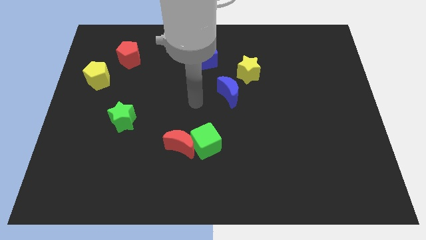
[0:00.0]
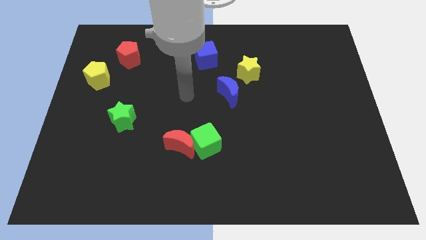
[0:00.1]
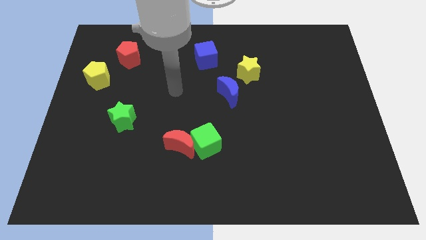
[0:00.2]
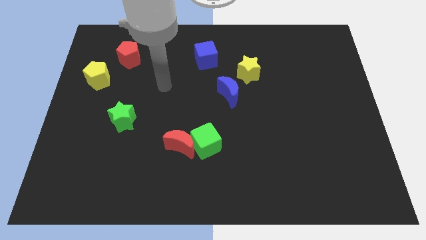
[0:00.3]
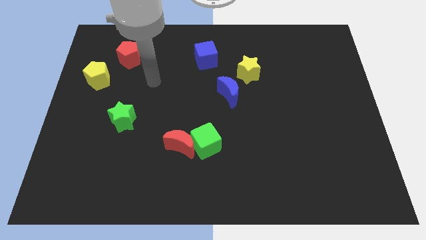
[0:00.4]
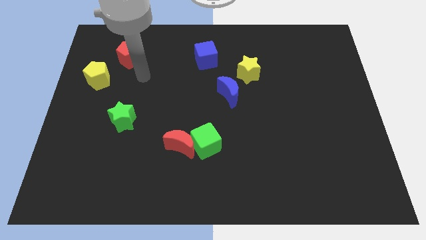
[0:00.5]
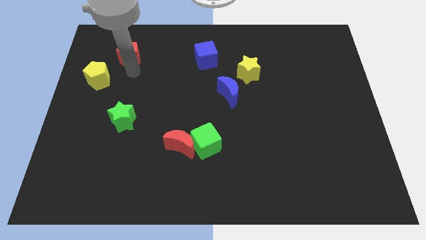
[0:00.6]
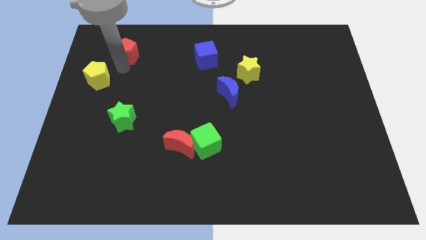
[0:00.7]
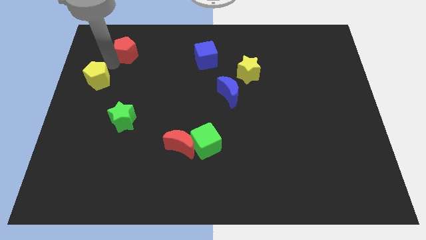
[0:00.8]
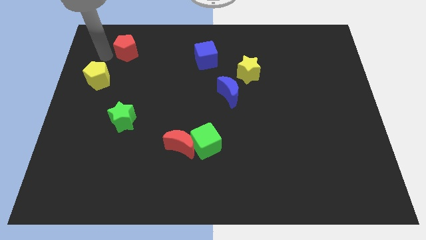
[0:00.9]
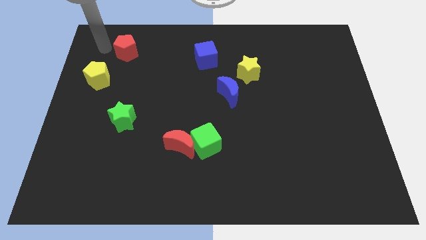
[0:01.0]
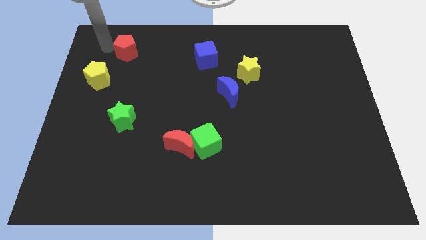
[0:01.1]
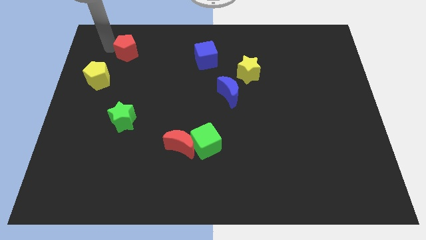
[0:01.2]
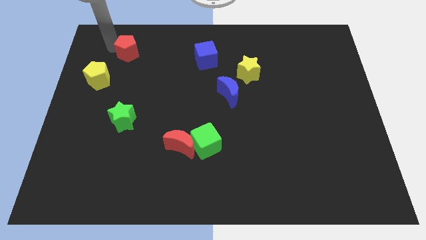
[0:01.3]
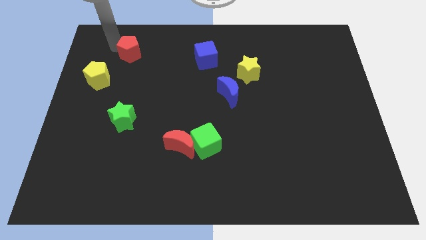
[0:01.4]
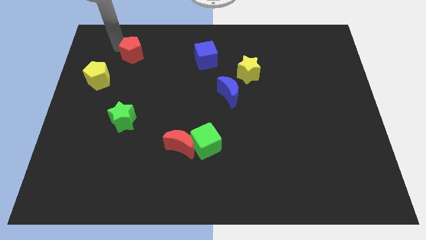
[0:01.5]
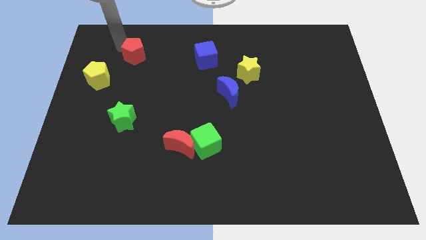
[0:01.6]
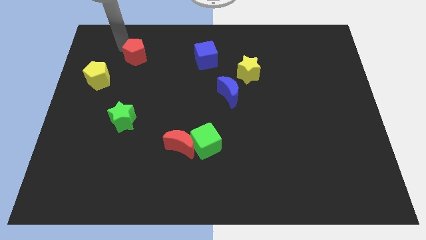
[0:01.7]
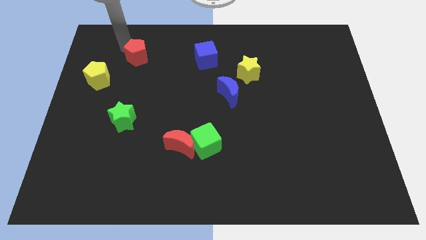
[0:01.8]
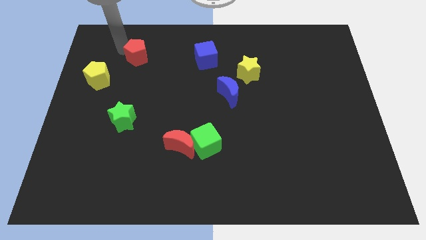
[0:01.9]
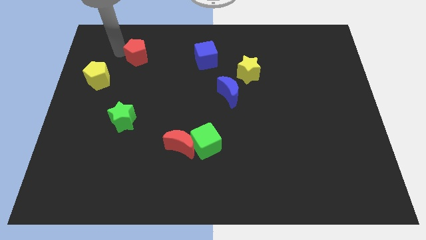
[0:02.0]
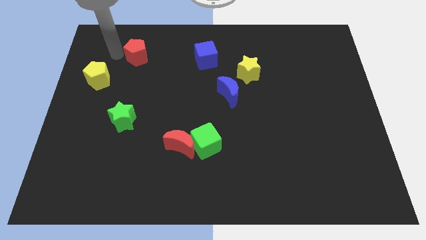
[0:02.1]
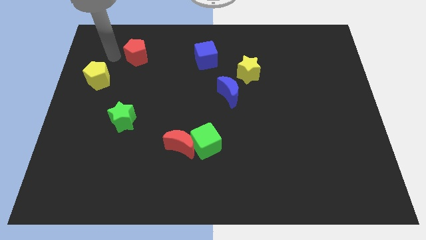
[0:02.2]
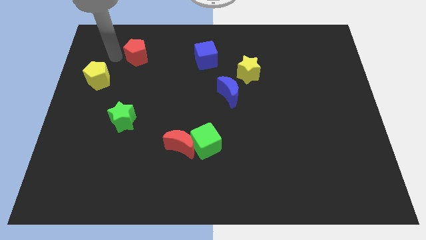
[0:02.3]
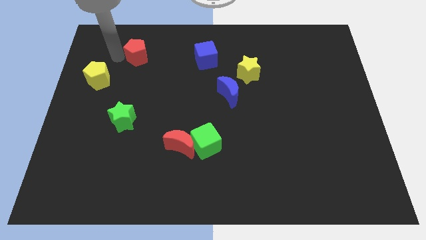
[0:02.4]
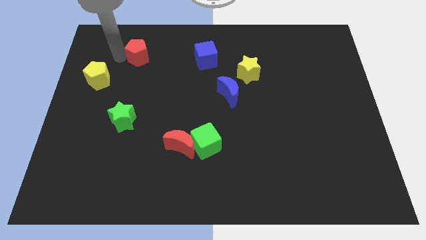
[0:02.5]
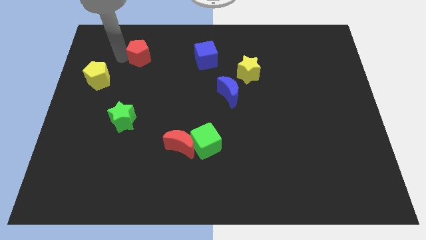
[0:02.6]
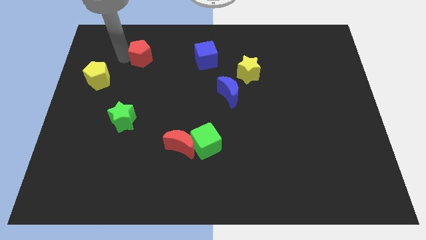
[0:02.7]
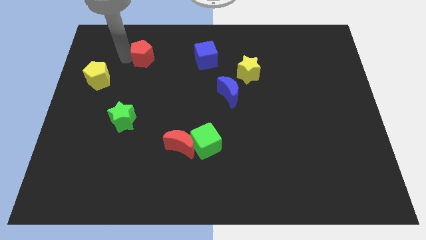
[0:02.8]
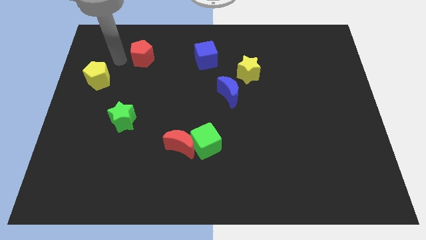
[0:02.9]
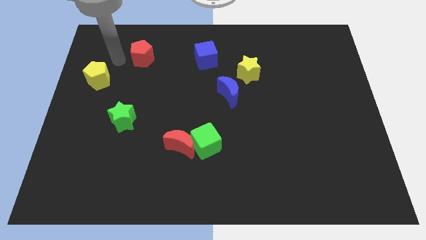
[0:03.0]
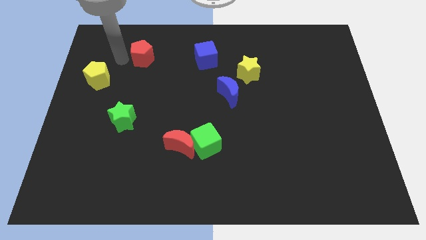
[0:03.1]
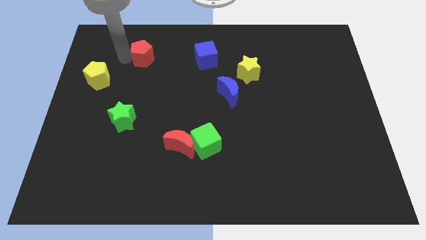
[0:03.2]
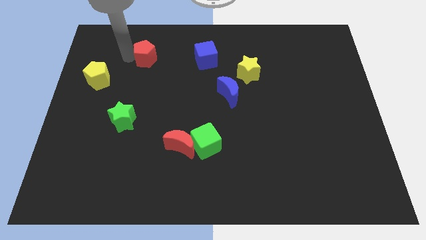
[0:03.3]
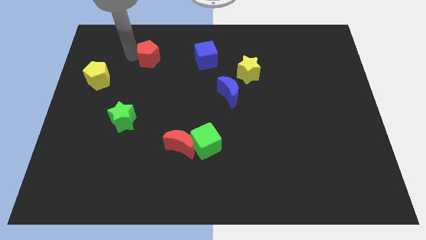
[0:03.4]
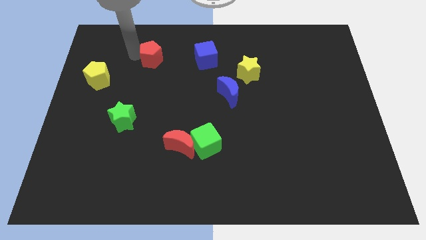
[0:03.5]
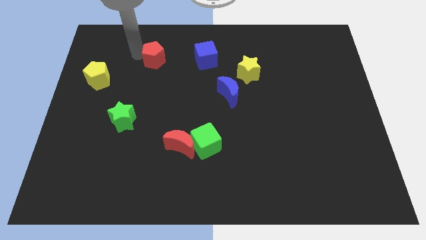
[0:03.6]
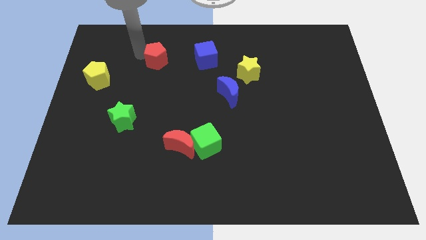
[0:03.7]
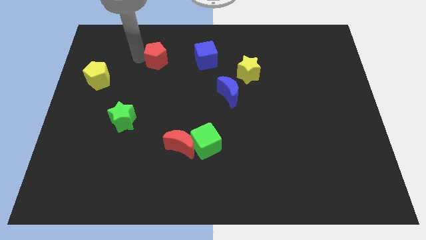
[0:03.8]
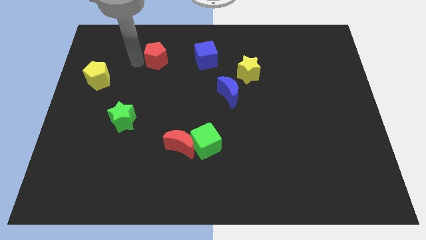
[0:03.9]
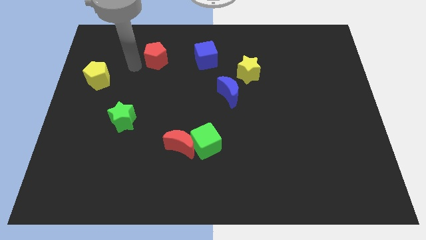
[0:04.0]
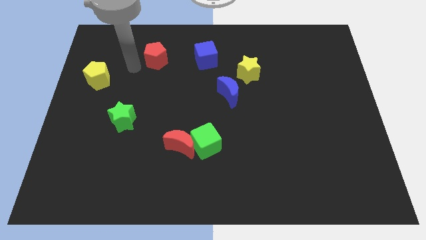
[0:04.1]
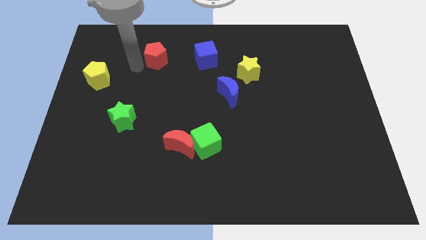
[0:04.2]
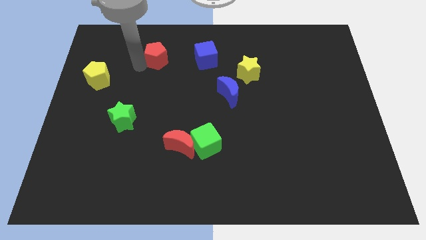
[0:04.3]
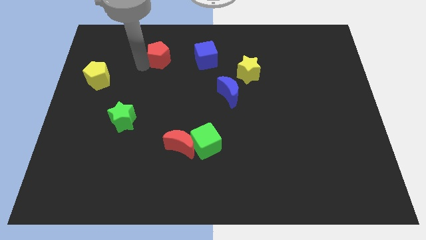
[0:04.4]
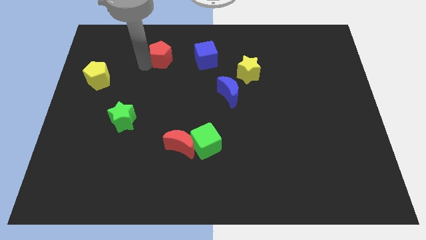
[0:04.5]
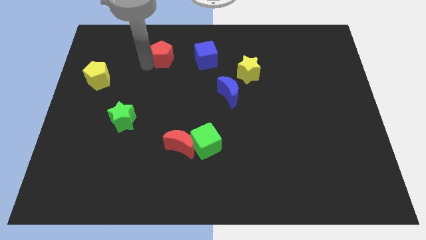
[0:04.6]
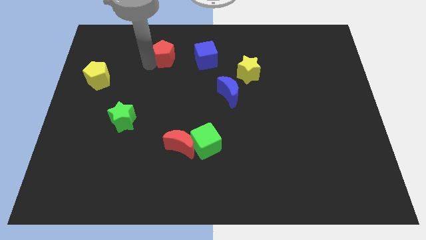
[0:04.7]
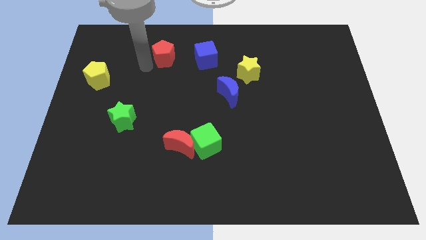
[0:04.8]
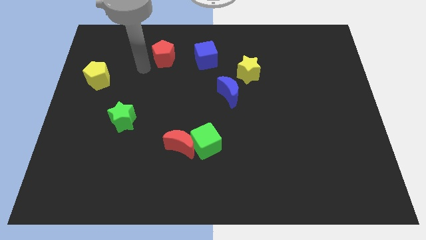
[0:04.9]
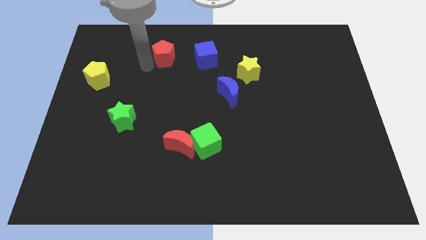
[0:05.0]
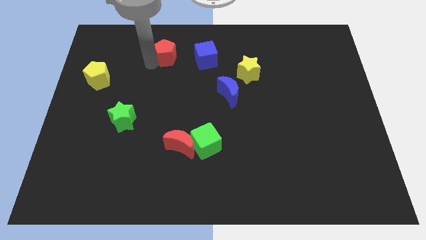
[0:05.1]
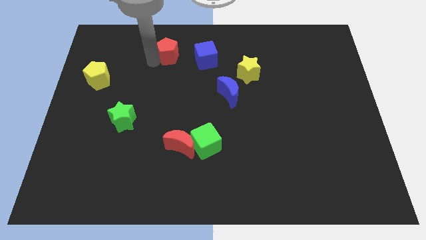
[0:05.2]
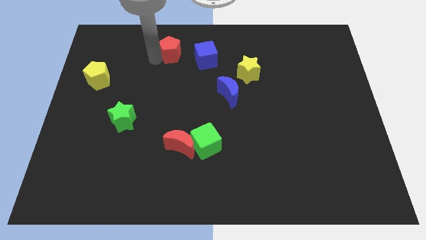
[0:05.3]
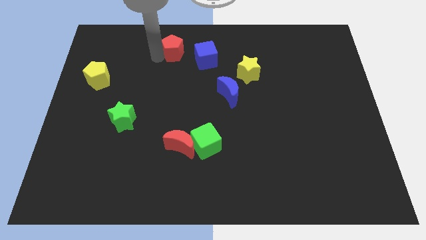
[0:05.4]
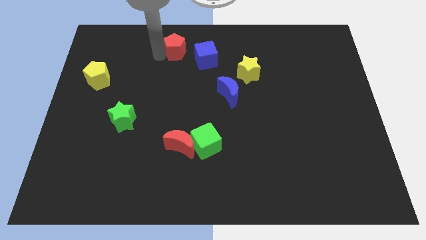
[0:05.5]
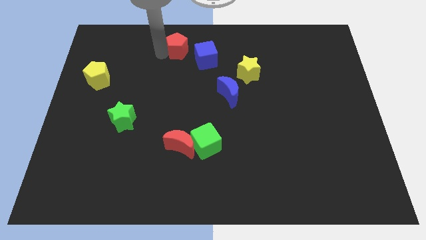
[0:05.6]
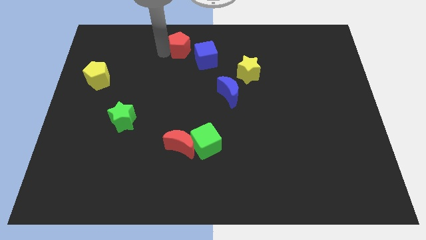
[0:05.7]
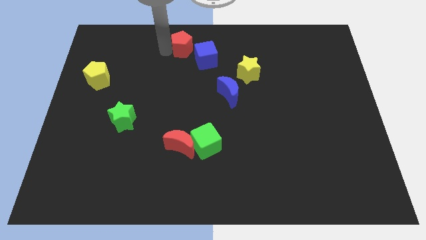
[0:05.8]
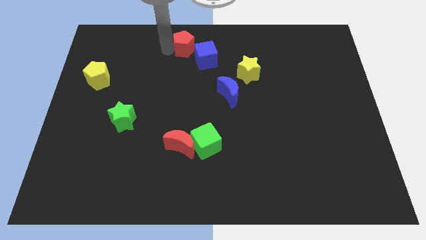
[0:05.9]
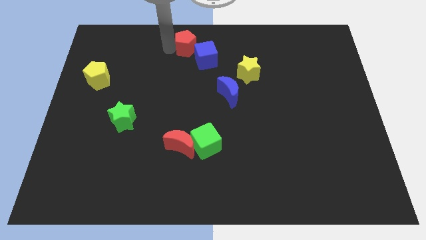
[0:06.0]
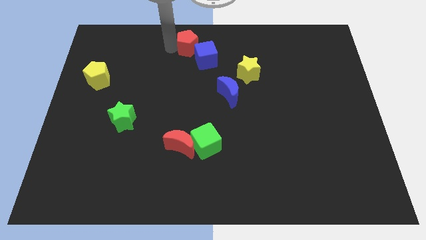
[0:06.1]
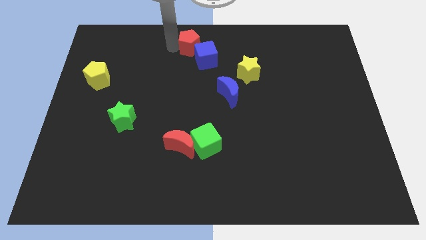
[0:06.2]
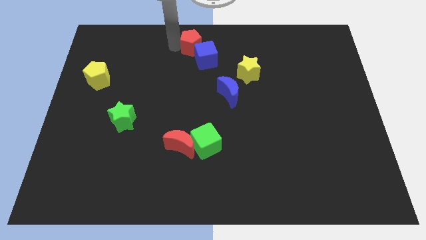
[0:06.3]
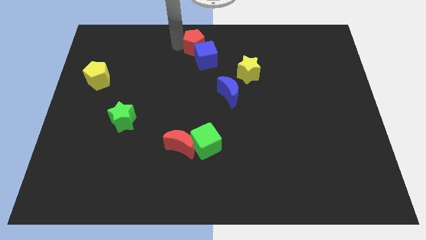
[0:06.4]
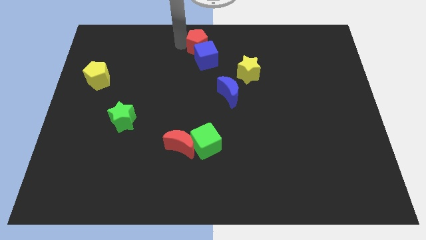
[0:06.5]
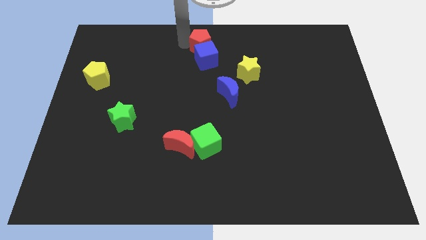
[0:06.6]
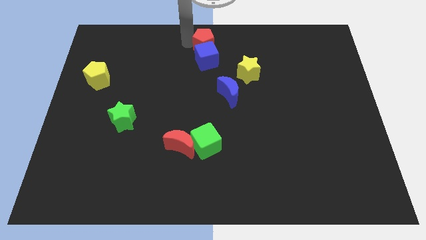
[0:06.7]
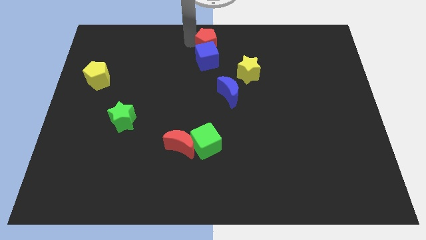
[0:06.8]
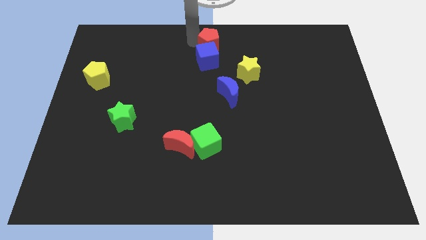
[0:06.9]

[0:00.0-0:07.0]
move the red pentagon right

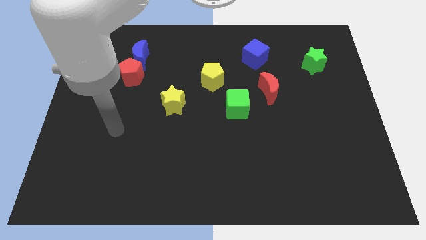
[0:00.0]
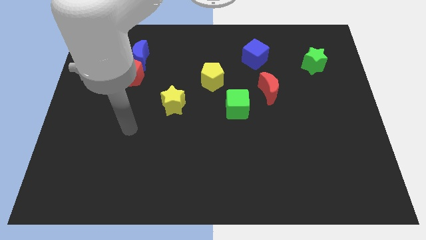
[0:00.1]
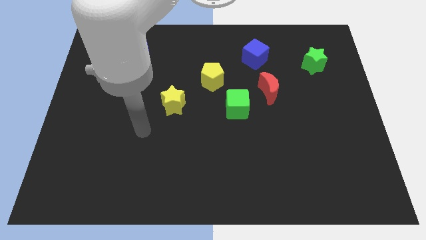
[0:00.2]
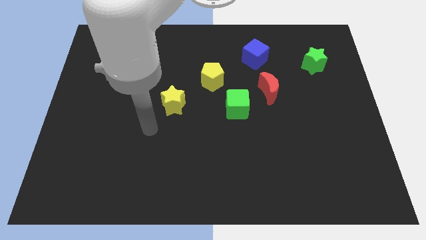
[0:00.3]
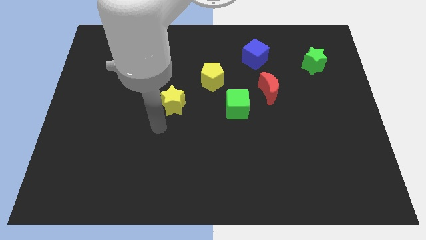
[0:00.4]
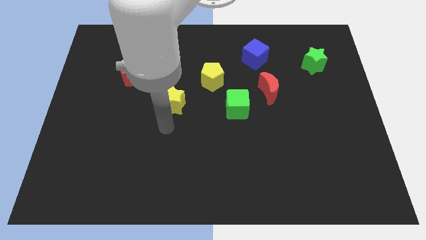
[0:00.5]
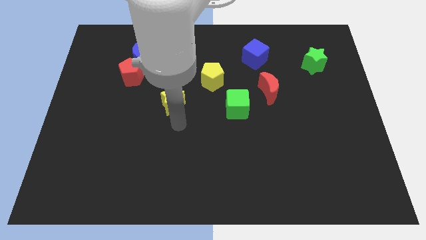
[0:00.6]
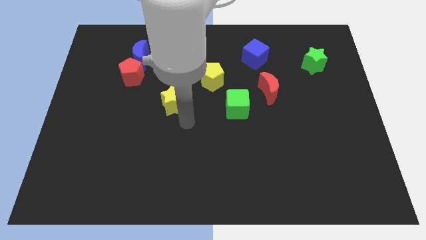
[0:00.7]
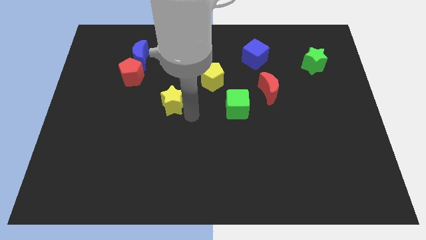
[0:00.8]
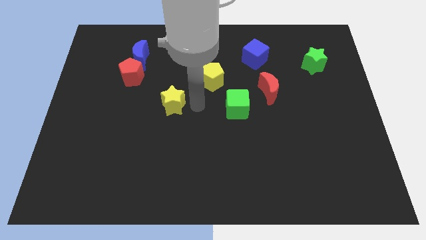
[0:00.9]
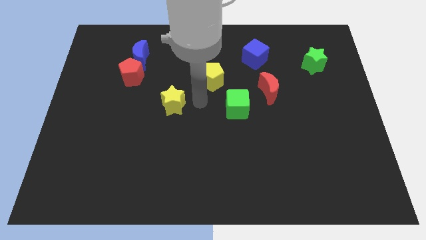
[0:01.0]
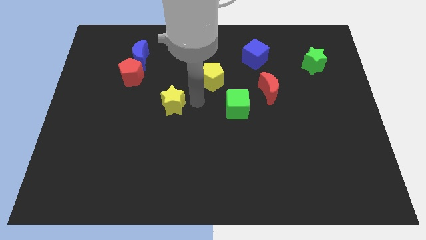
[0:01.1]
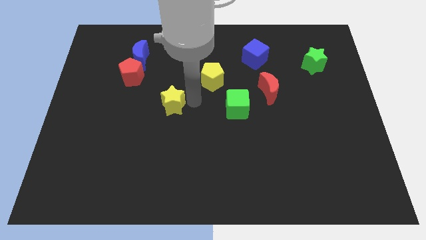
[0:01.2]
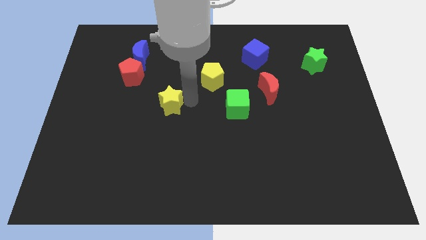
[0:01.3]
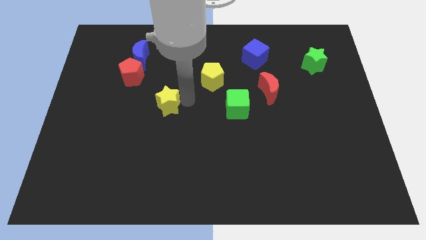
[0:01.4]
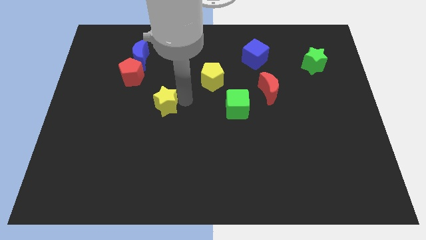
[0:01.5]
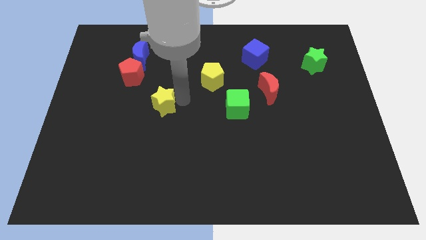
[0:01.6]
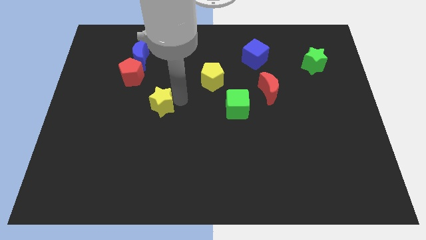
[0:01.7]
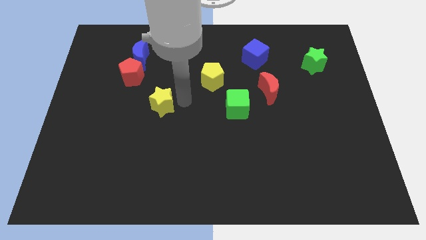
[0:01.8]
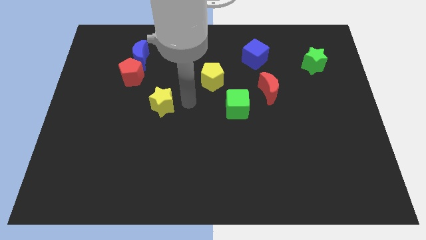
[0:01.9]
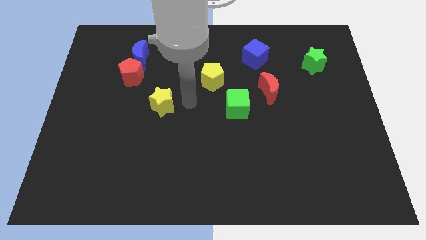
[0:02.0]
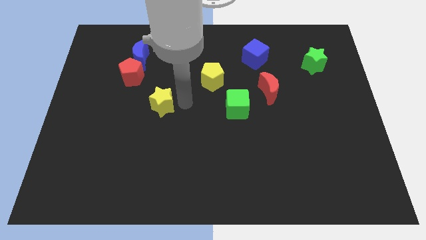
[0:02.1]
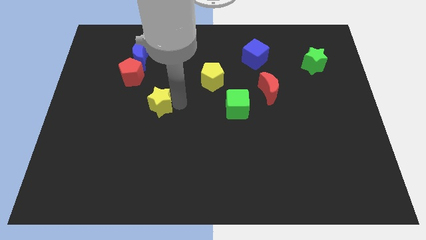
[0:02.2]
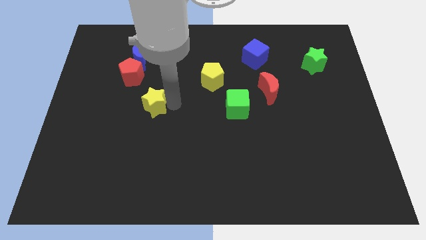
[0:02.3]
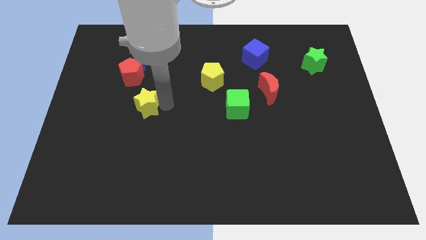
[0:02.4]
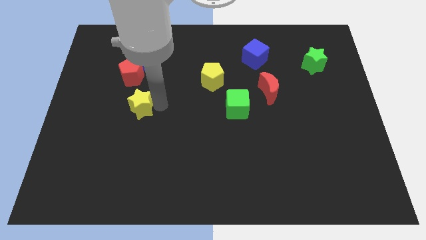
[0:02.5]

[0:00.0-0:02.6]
slide the yellow star a bit to the left
